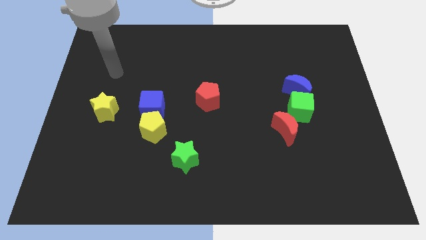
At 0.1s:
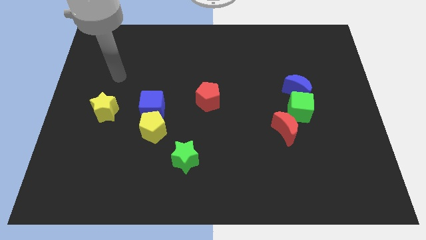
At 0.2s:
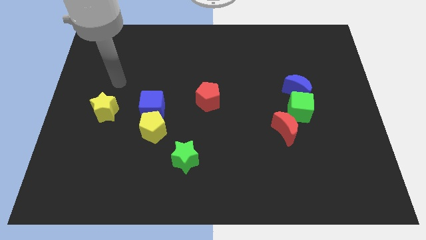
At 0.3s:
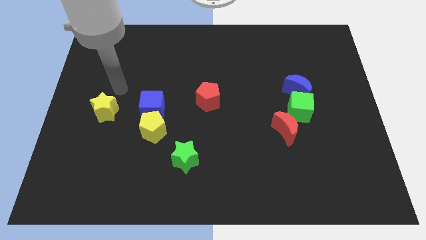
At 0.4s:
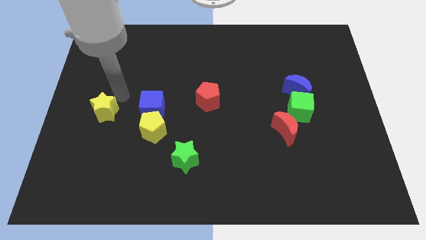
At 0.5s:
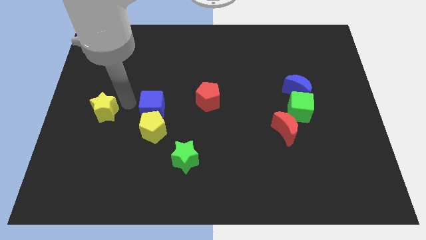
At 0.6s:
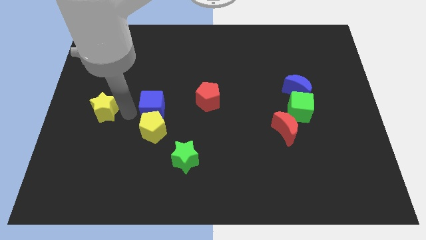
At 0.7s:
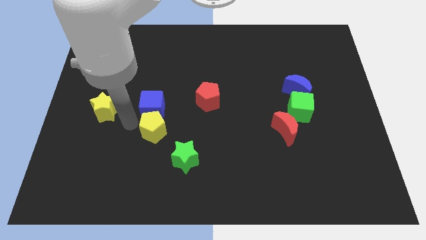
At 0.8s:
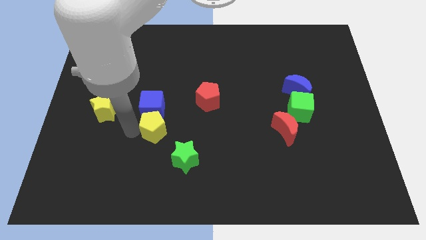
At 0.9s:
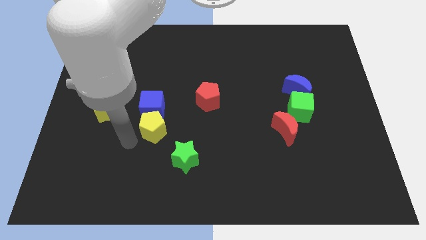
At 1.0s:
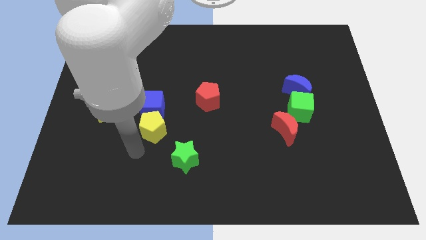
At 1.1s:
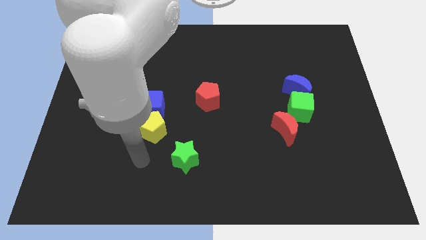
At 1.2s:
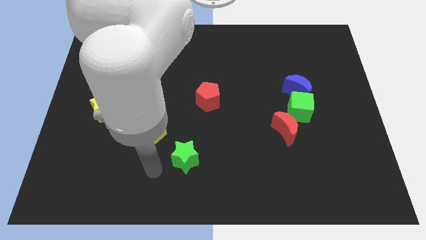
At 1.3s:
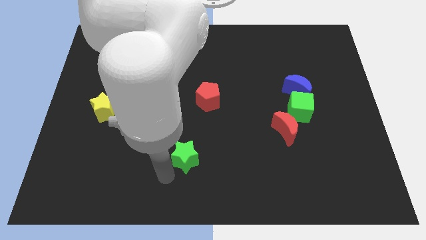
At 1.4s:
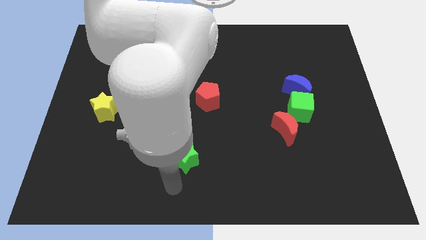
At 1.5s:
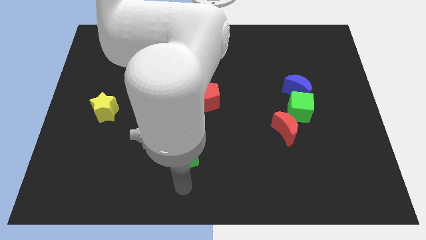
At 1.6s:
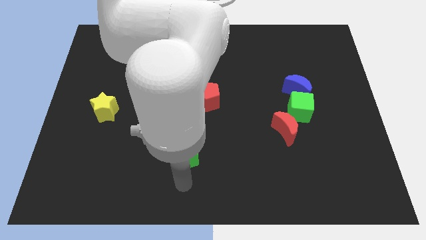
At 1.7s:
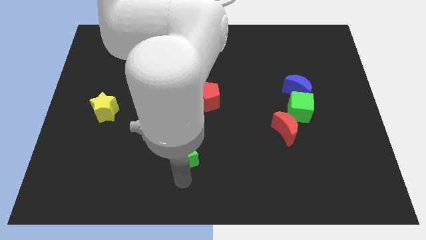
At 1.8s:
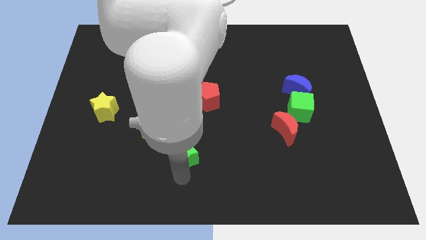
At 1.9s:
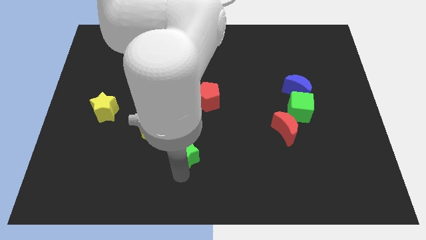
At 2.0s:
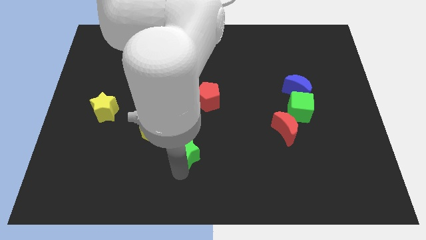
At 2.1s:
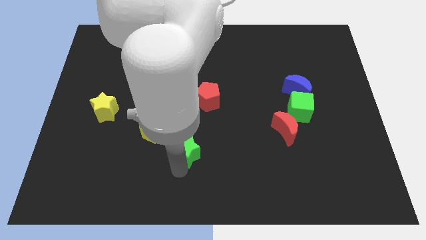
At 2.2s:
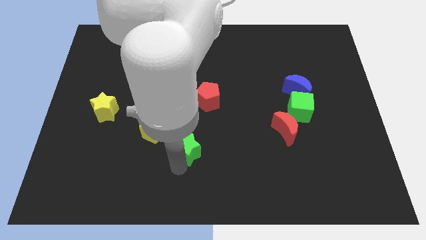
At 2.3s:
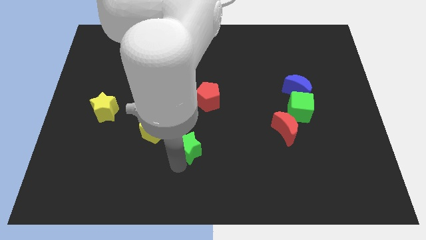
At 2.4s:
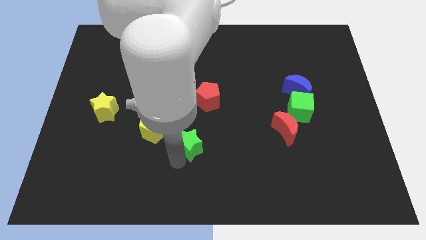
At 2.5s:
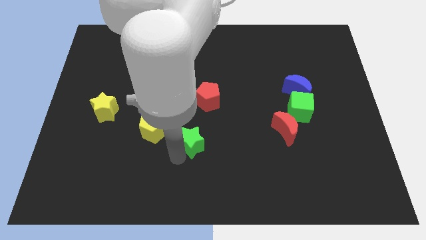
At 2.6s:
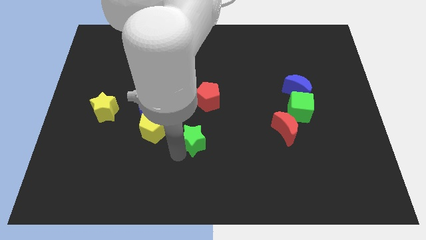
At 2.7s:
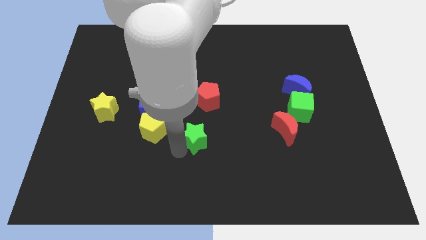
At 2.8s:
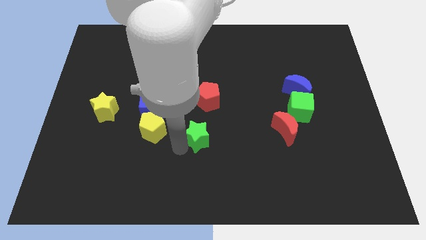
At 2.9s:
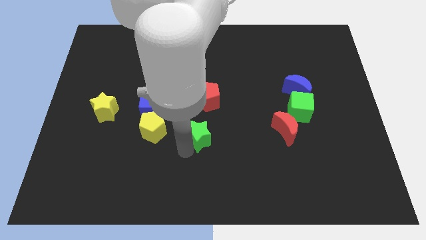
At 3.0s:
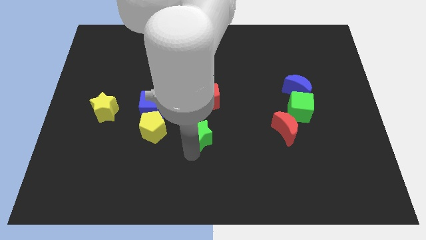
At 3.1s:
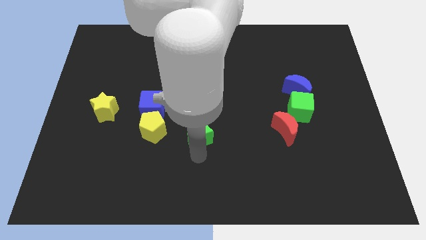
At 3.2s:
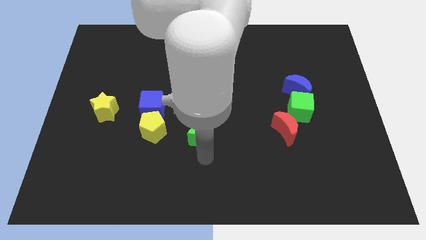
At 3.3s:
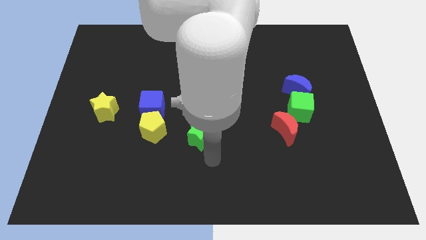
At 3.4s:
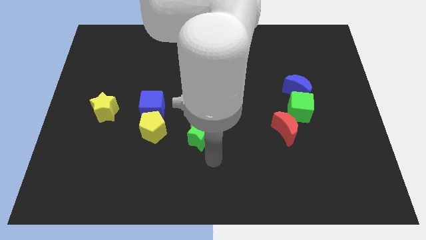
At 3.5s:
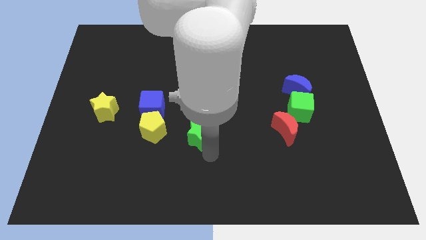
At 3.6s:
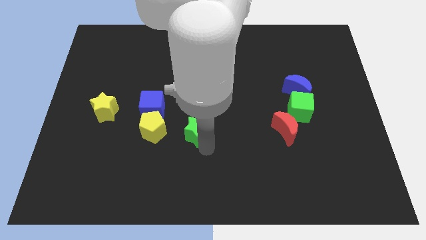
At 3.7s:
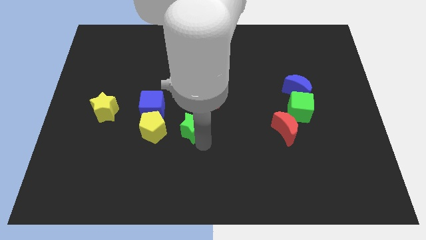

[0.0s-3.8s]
slightly move the green star upwards

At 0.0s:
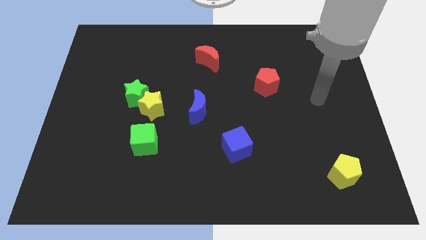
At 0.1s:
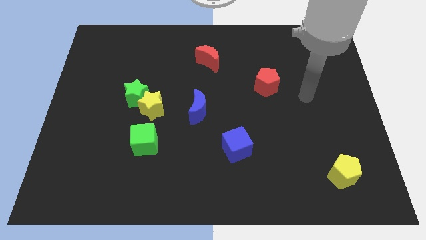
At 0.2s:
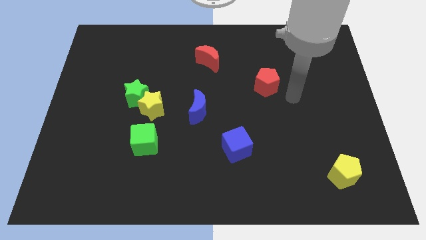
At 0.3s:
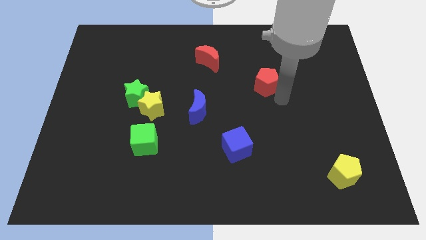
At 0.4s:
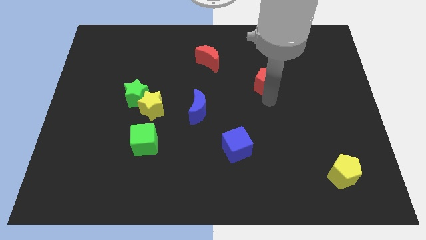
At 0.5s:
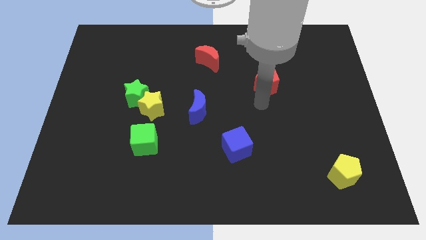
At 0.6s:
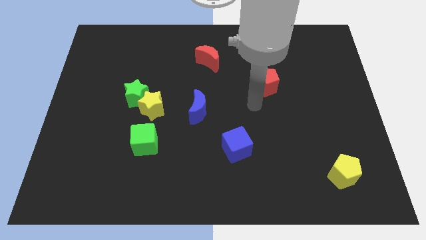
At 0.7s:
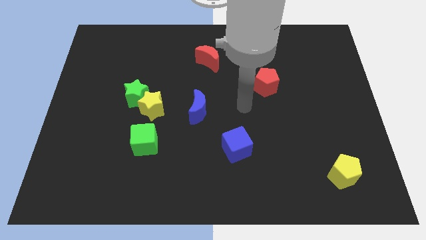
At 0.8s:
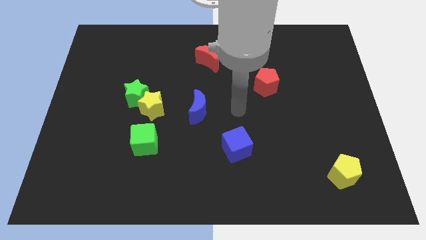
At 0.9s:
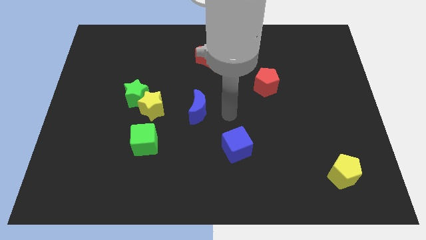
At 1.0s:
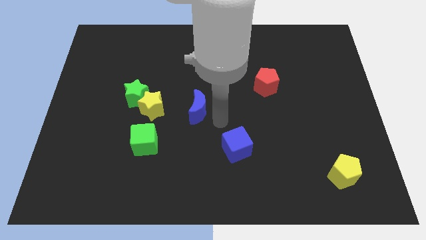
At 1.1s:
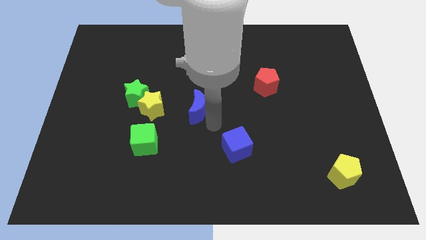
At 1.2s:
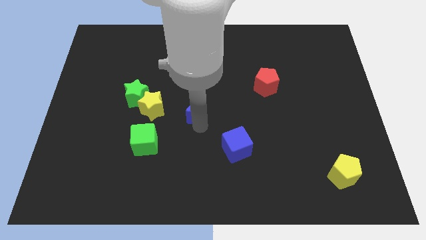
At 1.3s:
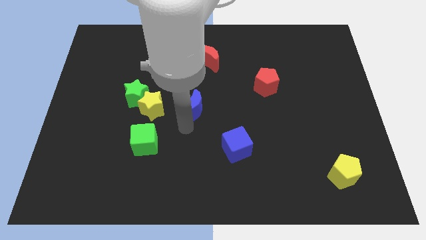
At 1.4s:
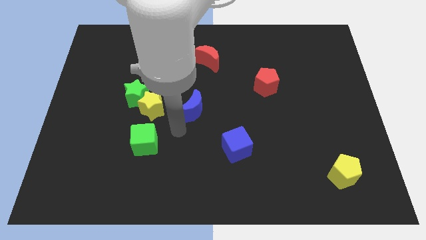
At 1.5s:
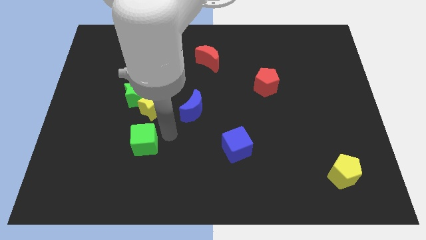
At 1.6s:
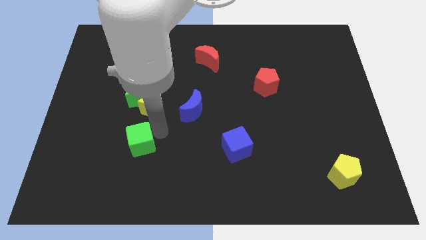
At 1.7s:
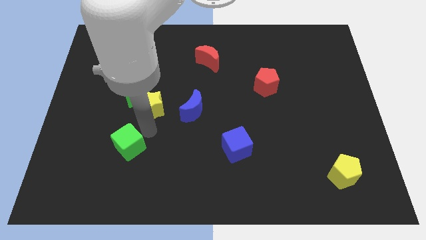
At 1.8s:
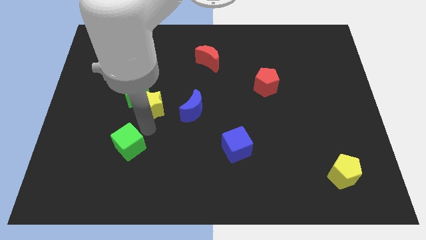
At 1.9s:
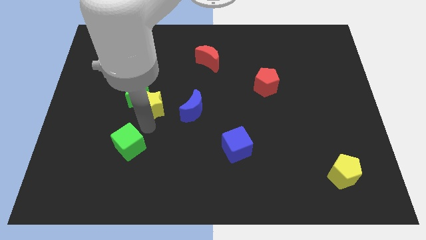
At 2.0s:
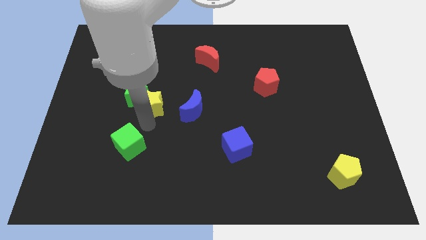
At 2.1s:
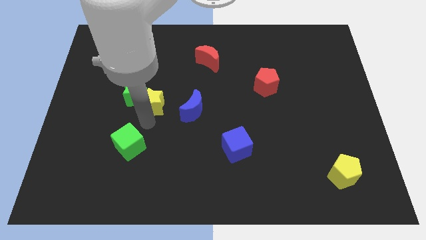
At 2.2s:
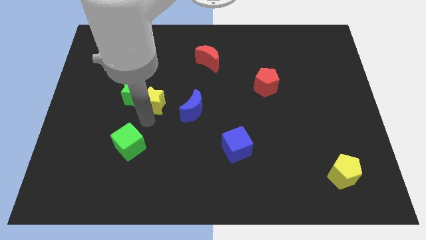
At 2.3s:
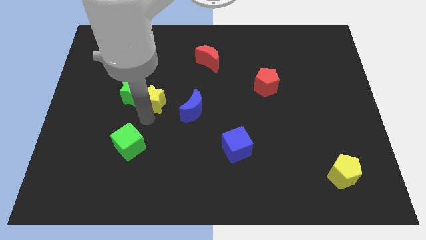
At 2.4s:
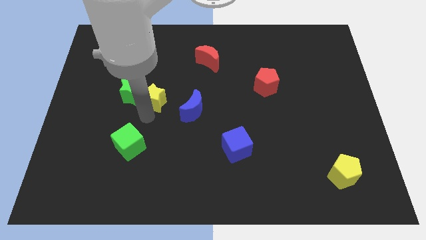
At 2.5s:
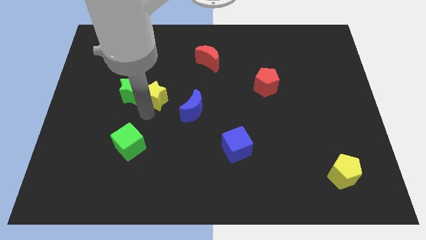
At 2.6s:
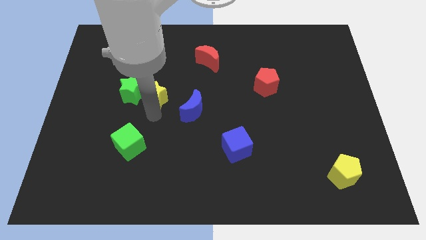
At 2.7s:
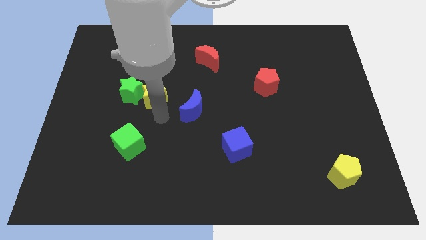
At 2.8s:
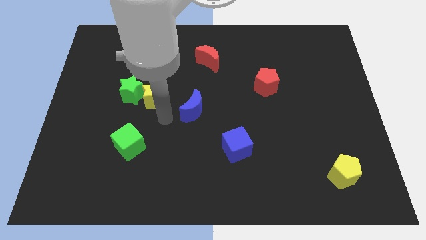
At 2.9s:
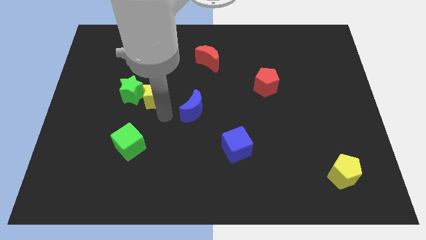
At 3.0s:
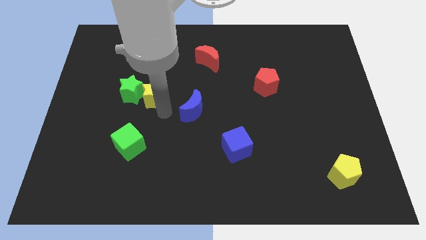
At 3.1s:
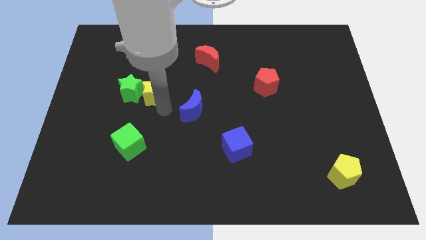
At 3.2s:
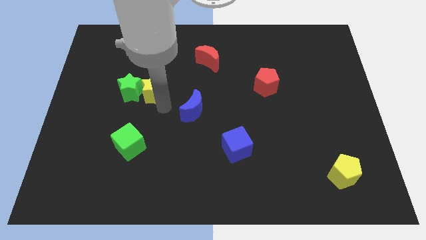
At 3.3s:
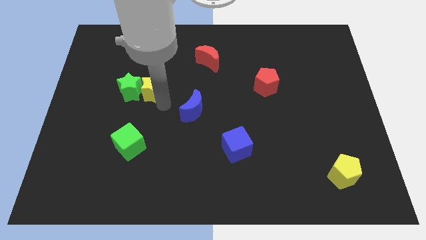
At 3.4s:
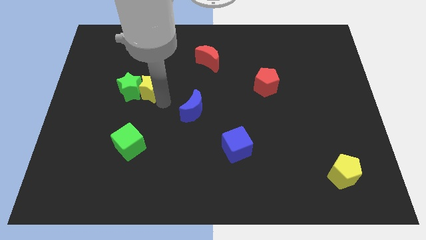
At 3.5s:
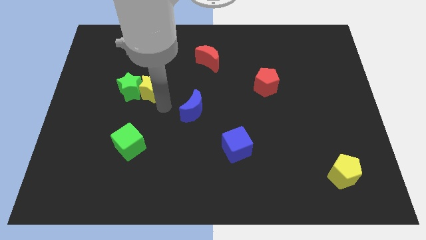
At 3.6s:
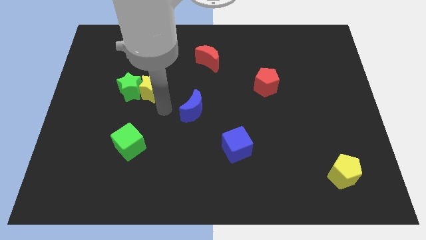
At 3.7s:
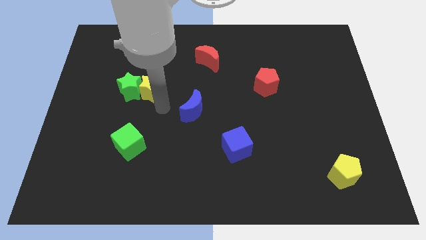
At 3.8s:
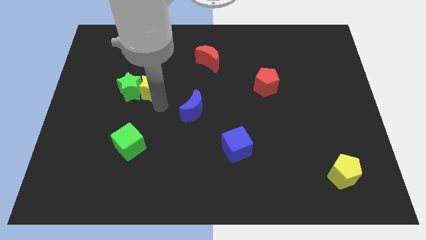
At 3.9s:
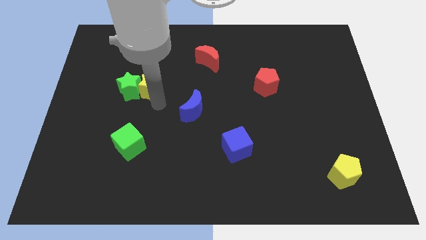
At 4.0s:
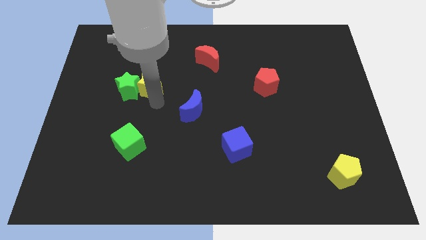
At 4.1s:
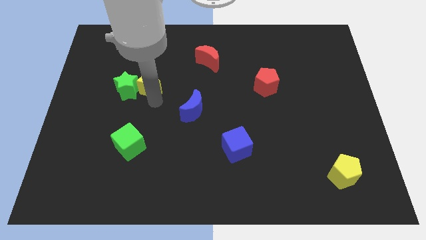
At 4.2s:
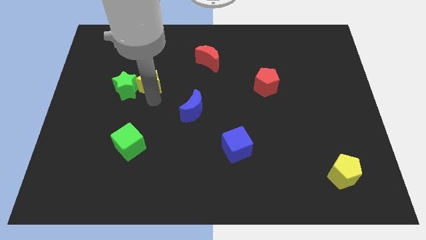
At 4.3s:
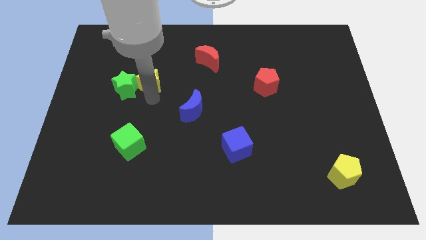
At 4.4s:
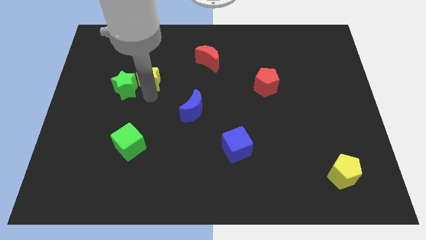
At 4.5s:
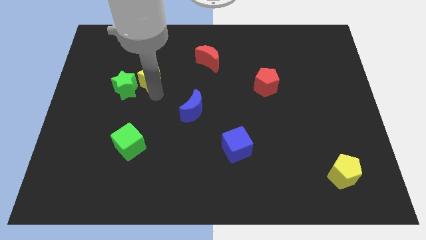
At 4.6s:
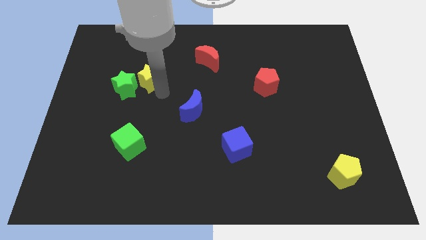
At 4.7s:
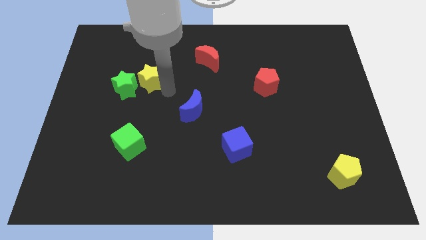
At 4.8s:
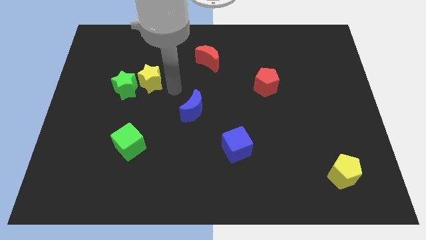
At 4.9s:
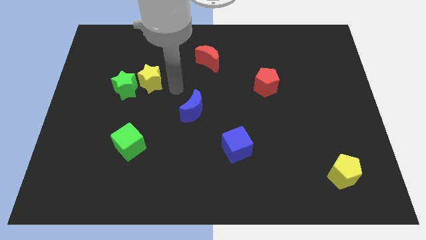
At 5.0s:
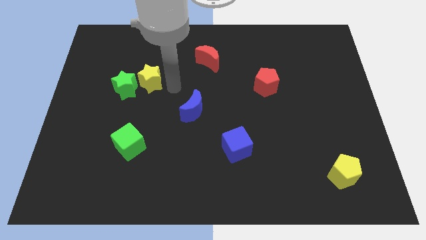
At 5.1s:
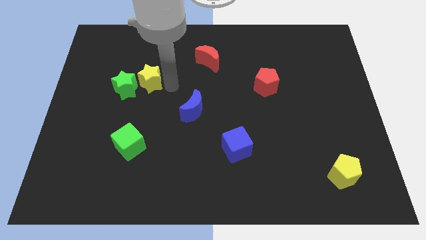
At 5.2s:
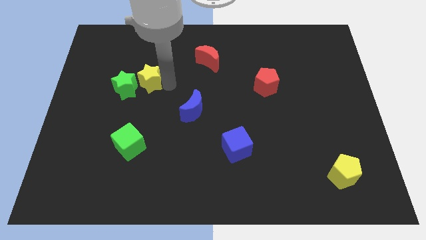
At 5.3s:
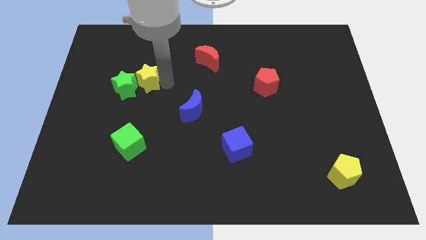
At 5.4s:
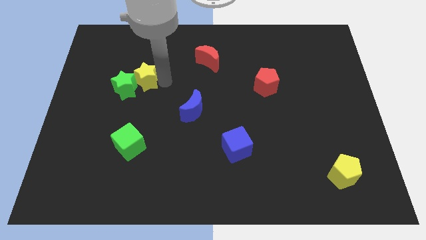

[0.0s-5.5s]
slightly slide the yellow star up and then to the left
